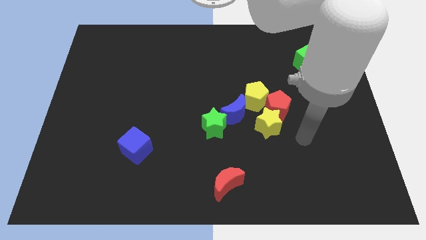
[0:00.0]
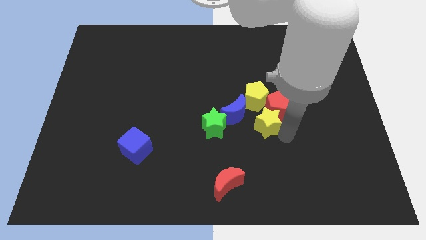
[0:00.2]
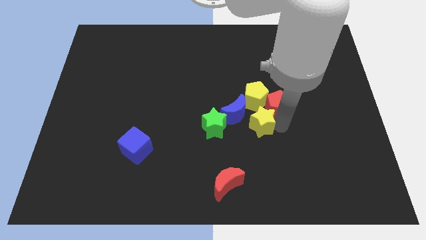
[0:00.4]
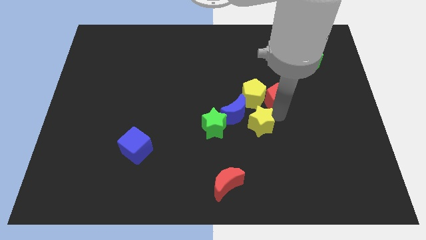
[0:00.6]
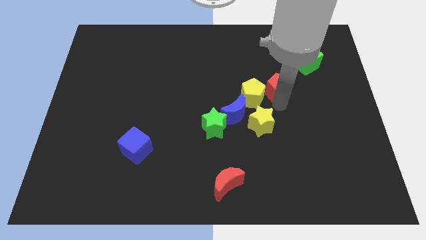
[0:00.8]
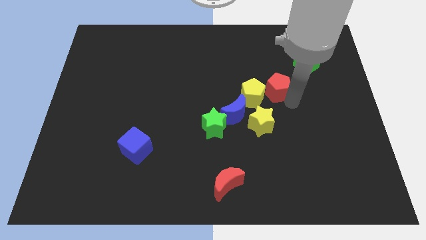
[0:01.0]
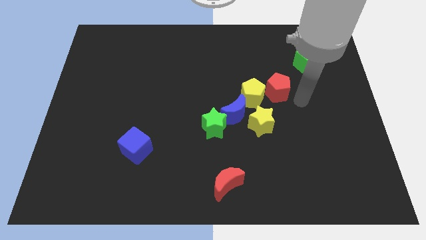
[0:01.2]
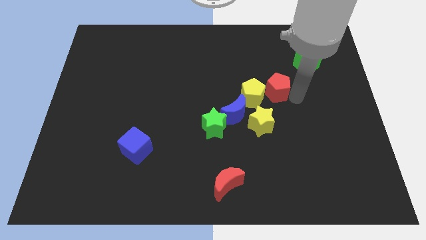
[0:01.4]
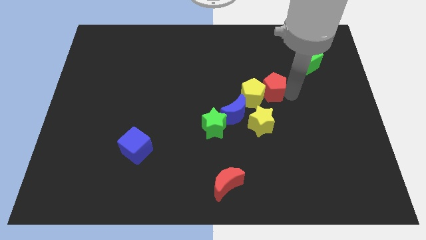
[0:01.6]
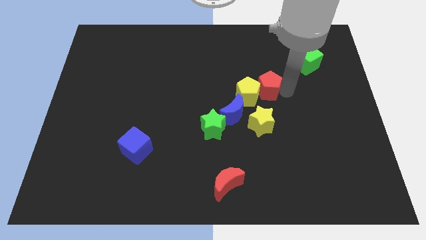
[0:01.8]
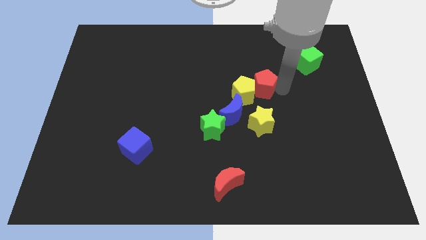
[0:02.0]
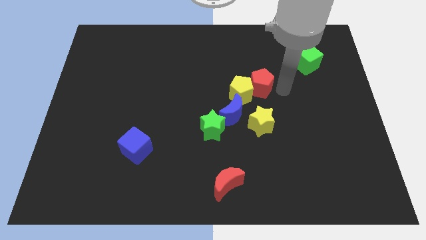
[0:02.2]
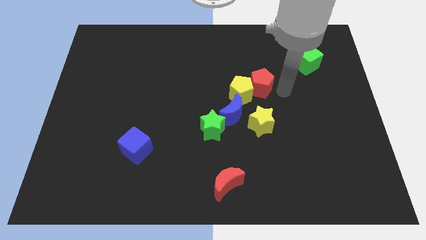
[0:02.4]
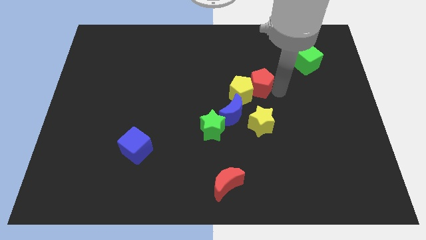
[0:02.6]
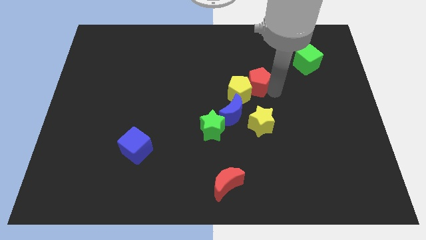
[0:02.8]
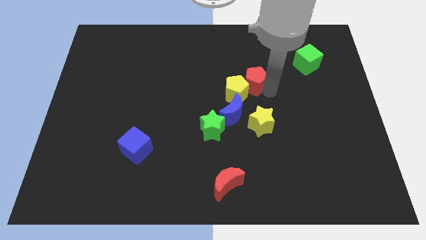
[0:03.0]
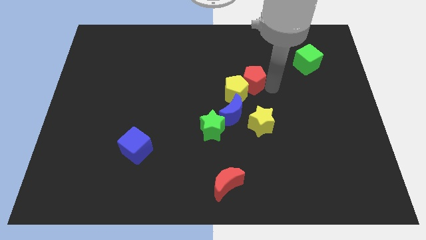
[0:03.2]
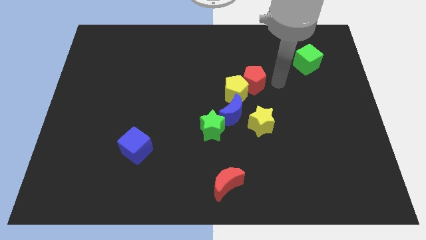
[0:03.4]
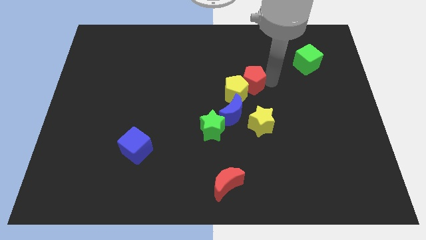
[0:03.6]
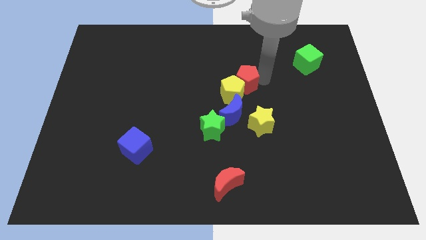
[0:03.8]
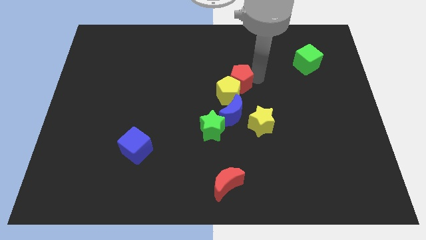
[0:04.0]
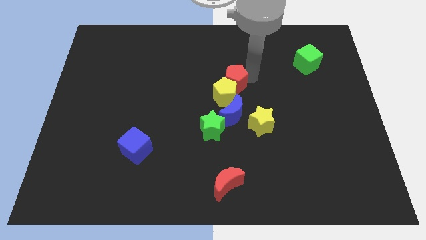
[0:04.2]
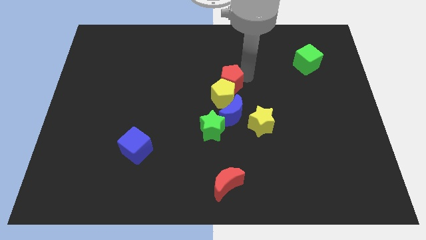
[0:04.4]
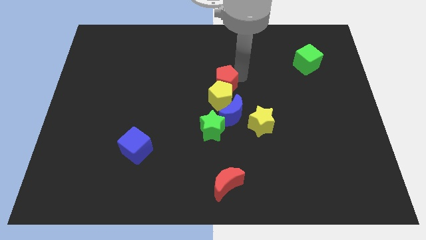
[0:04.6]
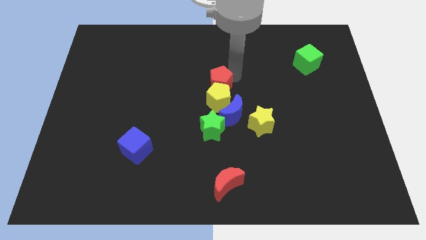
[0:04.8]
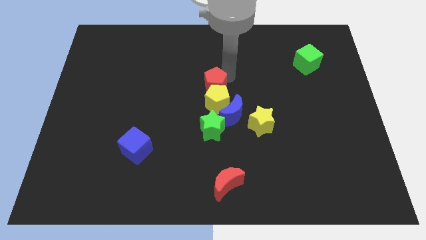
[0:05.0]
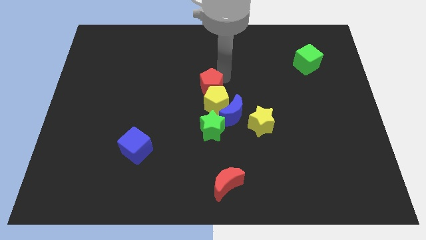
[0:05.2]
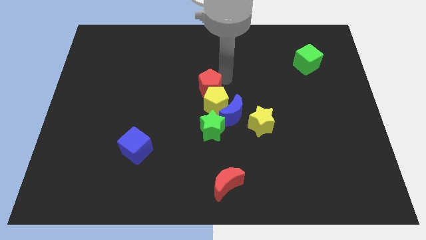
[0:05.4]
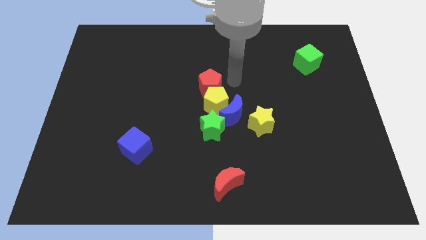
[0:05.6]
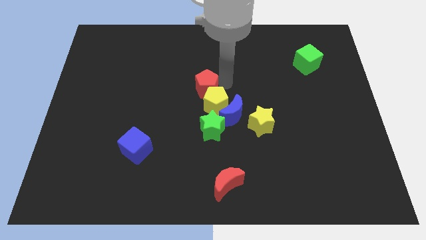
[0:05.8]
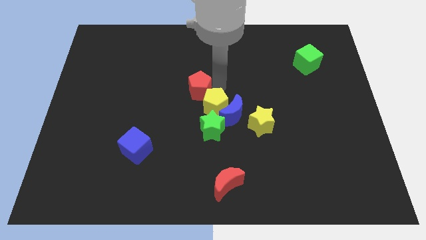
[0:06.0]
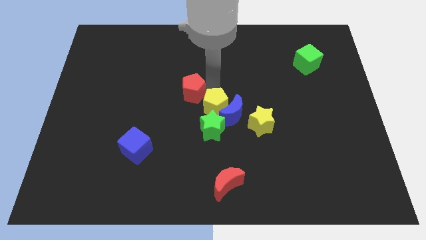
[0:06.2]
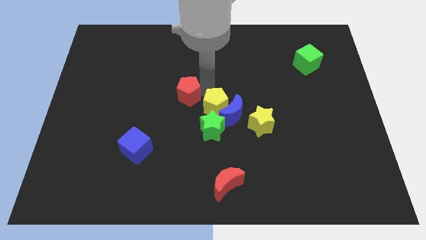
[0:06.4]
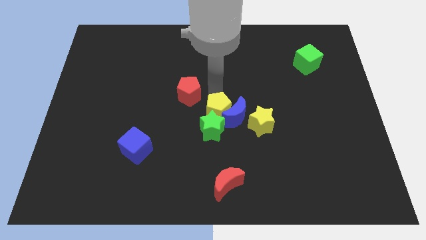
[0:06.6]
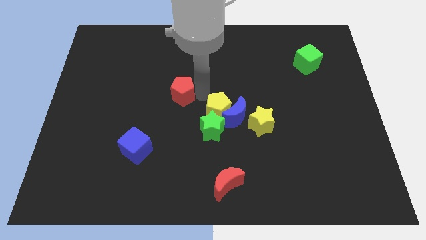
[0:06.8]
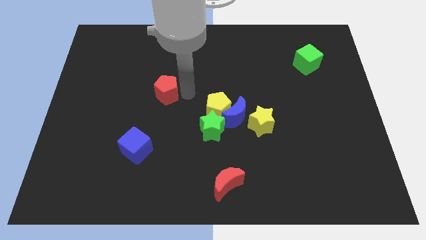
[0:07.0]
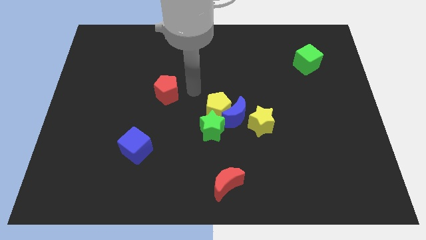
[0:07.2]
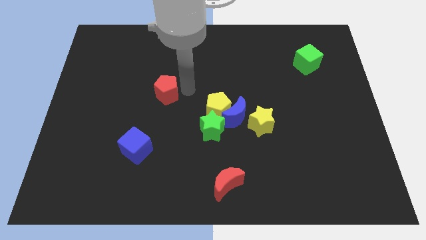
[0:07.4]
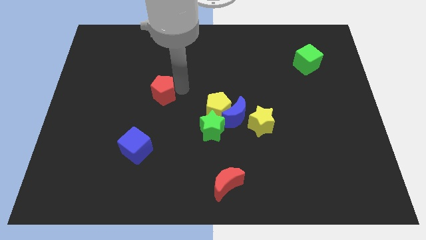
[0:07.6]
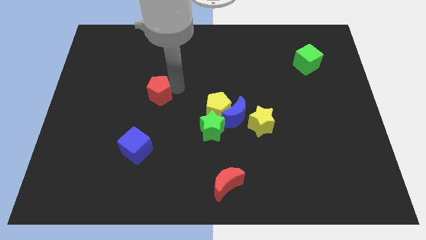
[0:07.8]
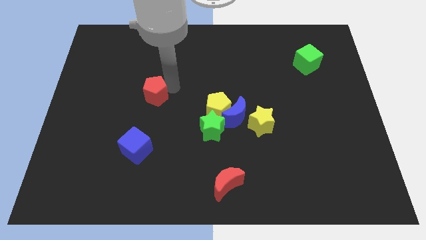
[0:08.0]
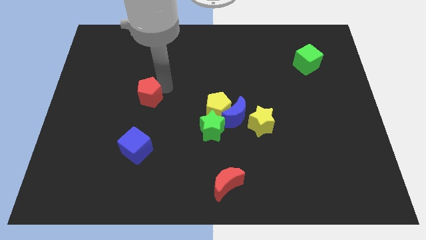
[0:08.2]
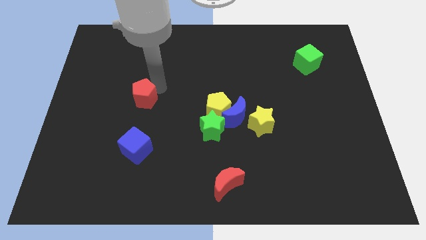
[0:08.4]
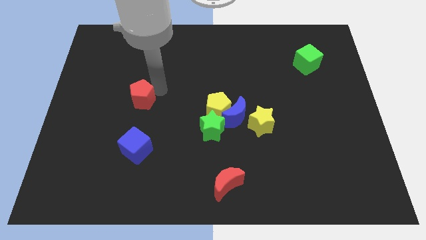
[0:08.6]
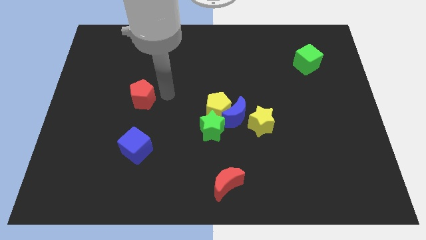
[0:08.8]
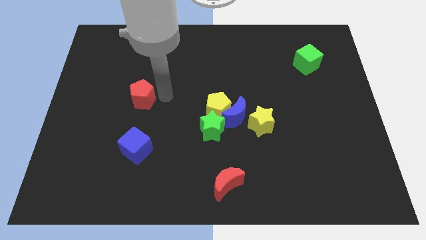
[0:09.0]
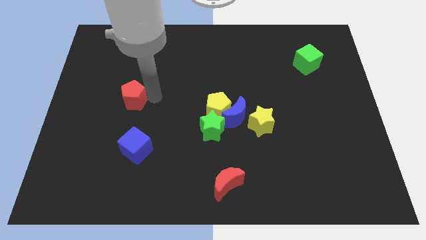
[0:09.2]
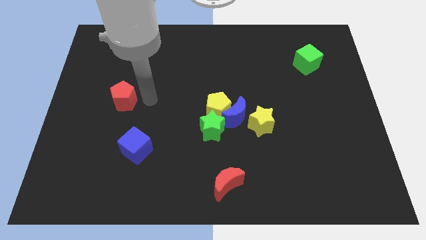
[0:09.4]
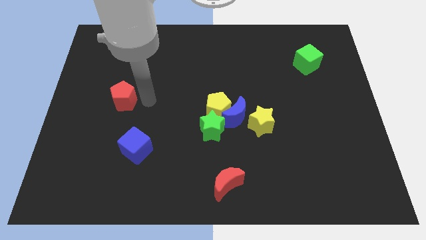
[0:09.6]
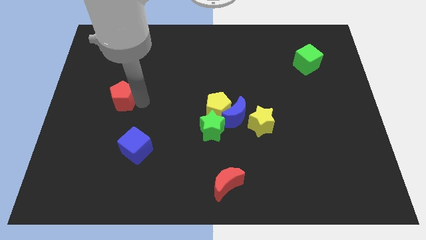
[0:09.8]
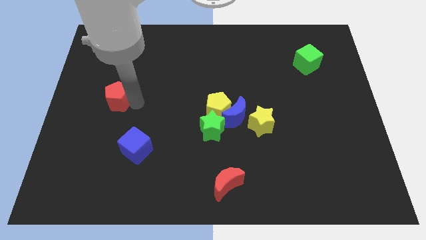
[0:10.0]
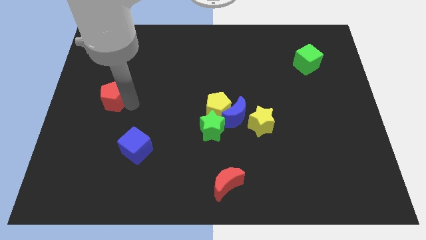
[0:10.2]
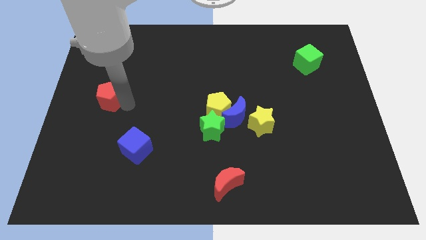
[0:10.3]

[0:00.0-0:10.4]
push the red pentagon to the left side of the board

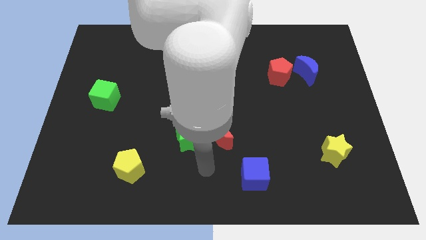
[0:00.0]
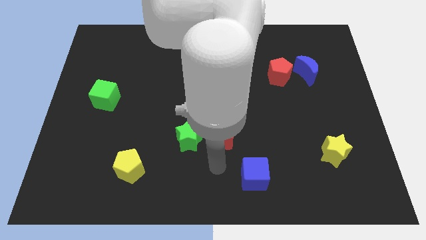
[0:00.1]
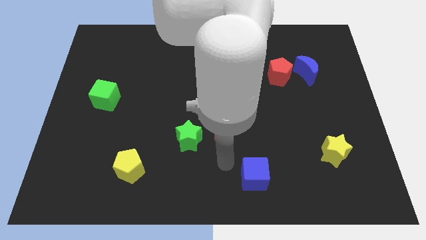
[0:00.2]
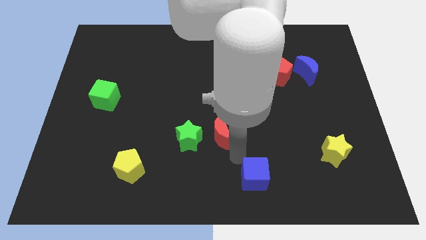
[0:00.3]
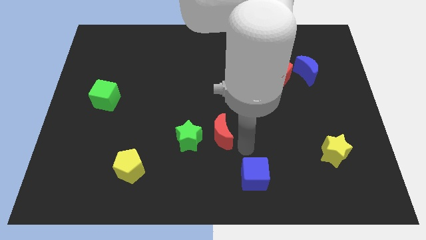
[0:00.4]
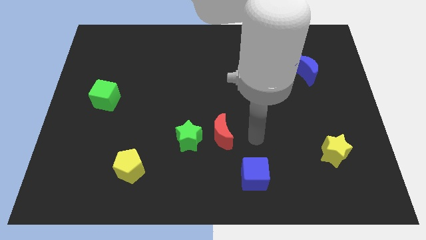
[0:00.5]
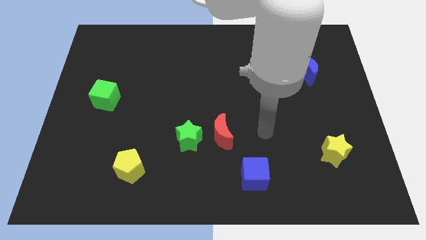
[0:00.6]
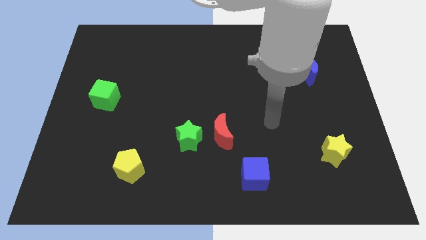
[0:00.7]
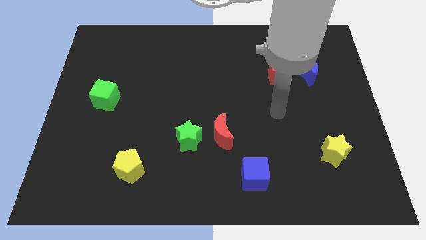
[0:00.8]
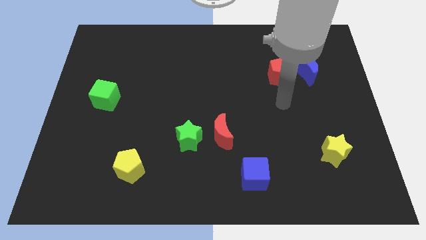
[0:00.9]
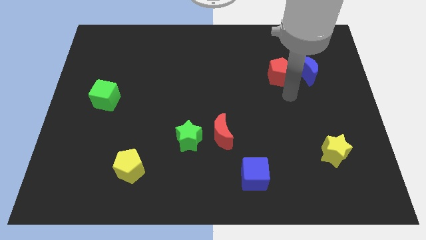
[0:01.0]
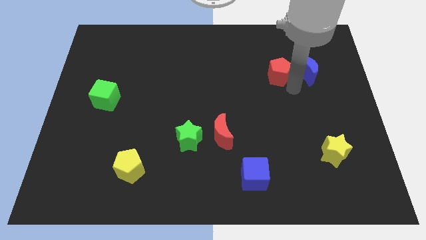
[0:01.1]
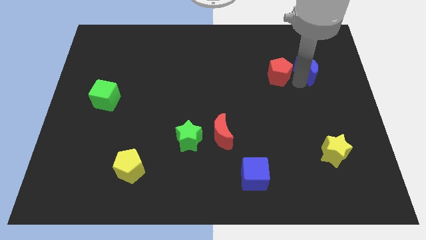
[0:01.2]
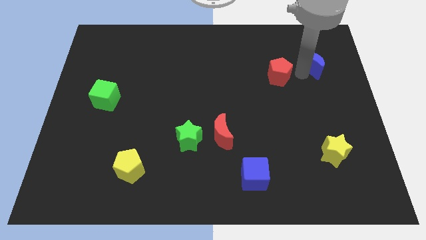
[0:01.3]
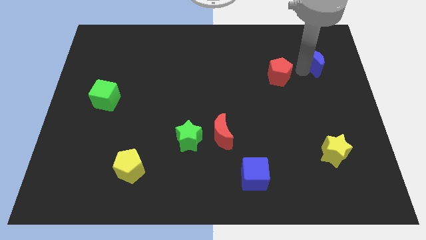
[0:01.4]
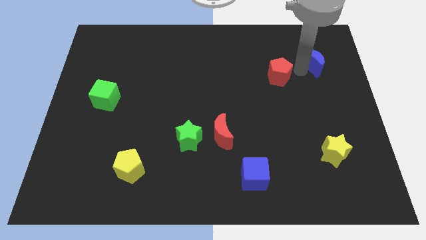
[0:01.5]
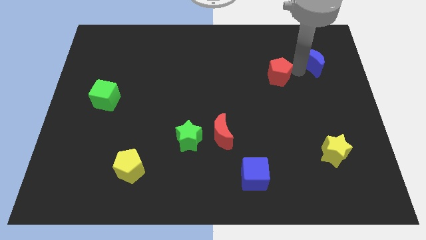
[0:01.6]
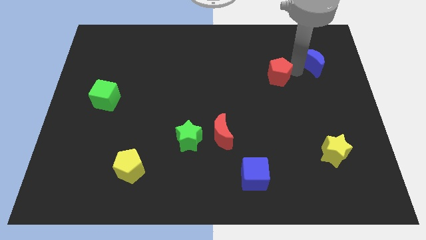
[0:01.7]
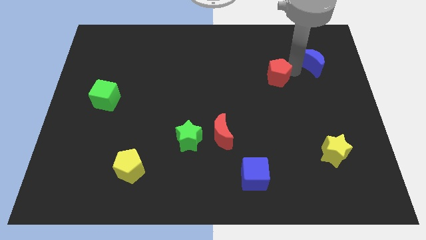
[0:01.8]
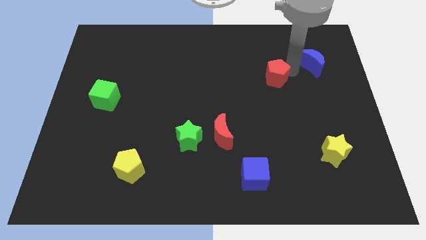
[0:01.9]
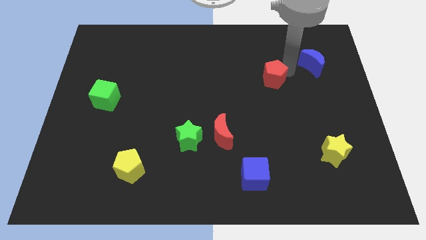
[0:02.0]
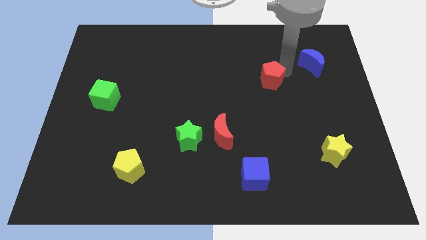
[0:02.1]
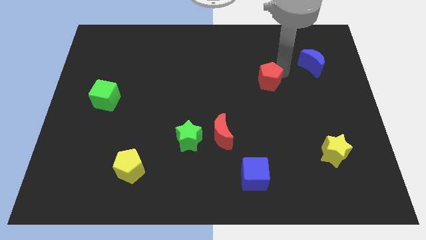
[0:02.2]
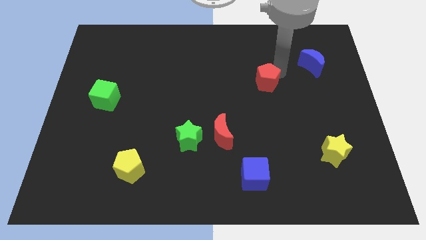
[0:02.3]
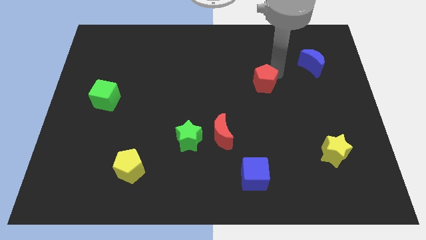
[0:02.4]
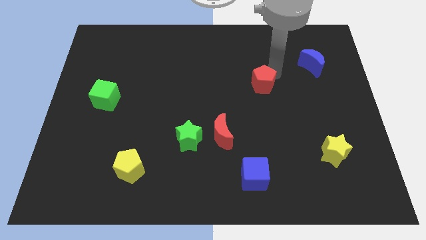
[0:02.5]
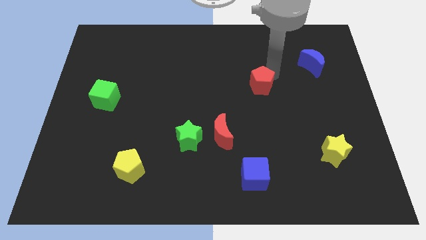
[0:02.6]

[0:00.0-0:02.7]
push the red pentagon to the center of the board
